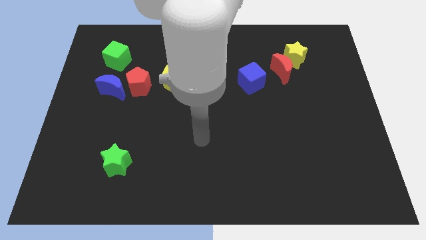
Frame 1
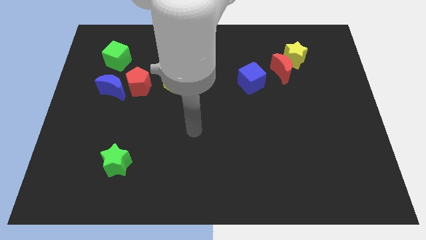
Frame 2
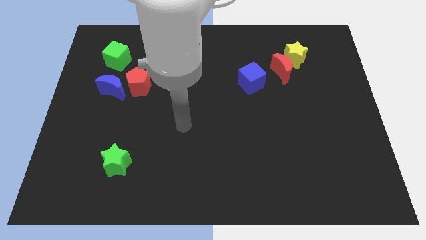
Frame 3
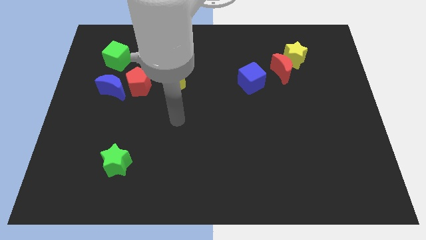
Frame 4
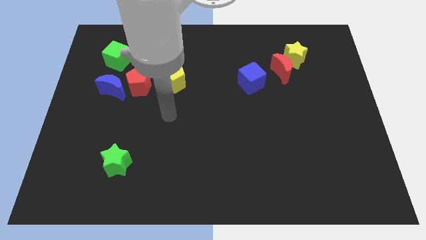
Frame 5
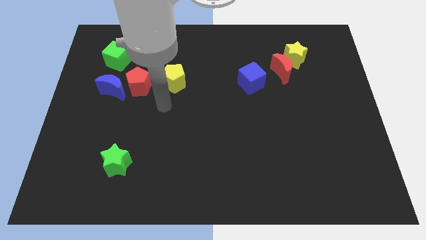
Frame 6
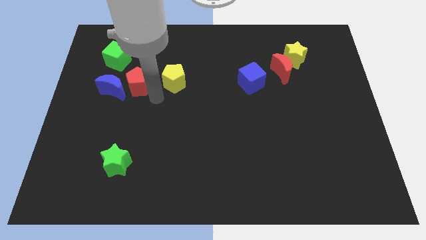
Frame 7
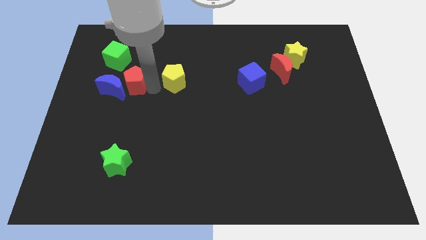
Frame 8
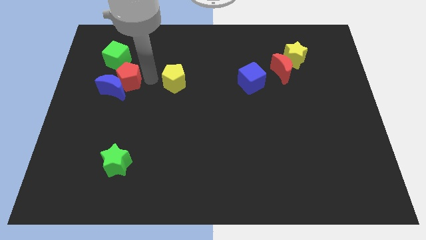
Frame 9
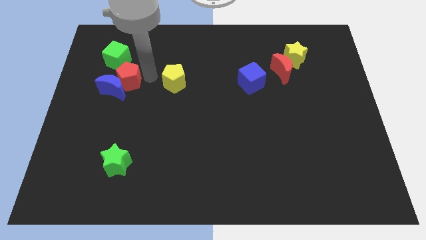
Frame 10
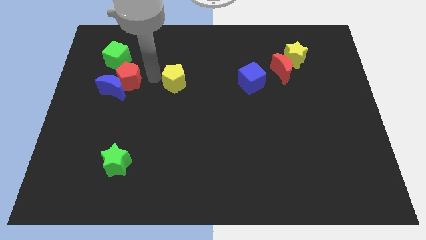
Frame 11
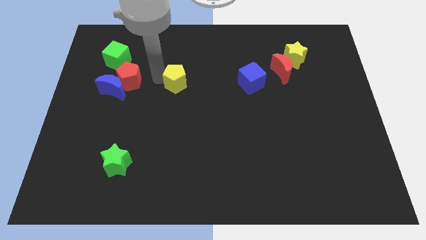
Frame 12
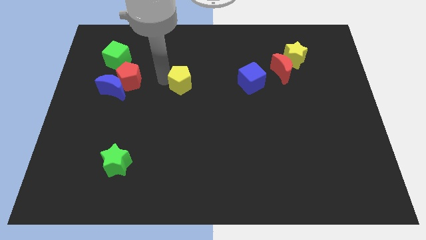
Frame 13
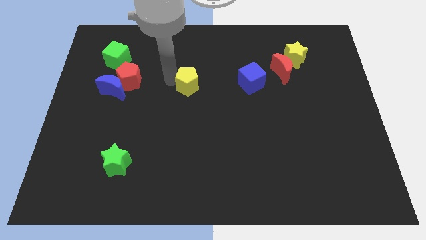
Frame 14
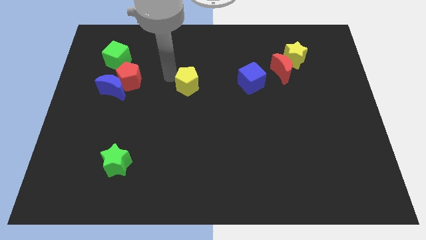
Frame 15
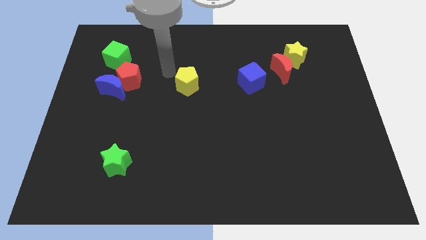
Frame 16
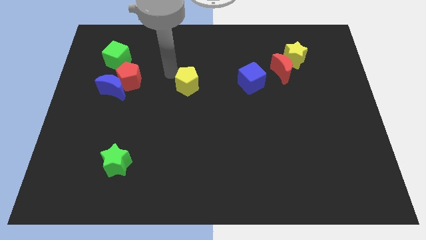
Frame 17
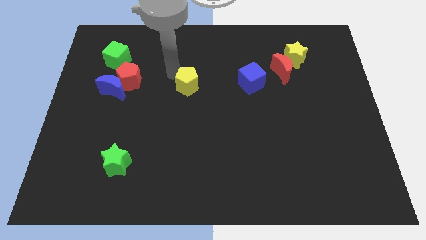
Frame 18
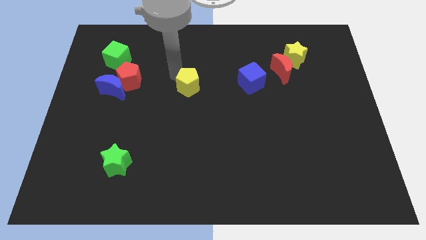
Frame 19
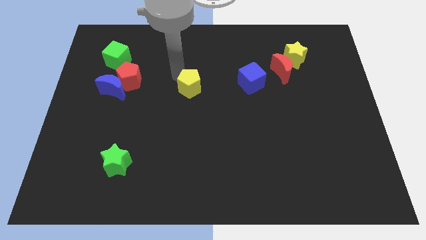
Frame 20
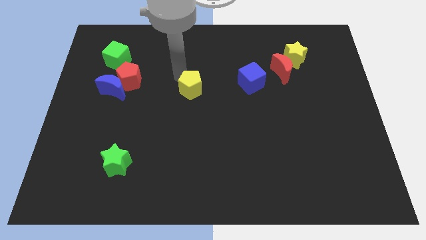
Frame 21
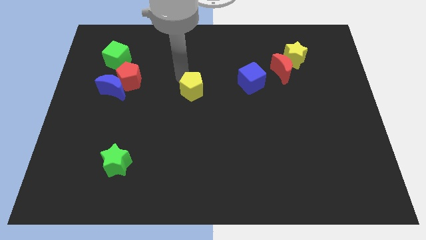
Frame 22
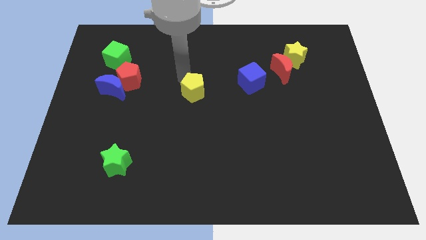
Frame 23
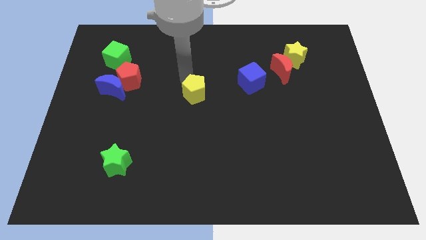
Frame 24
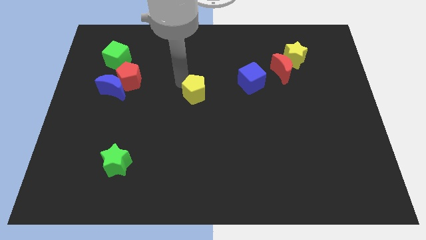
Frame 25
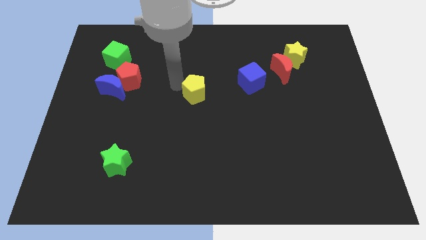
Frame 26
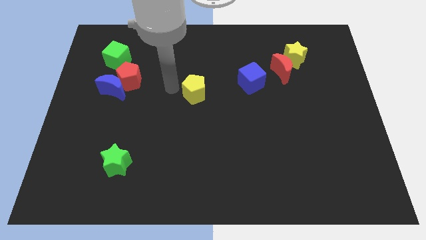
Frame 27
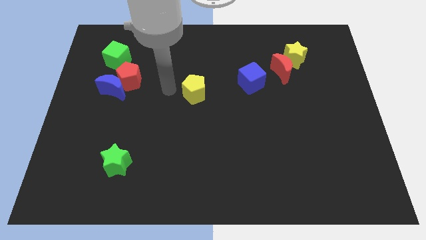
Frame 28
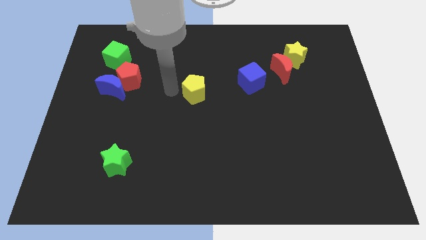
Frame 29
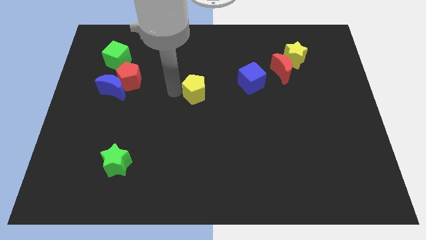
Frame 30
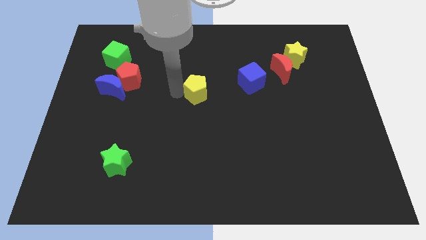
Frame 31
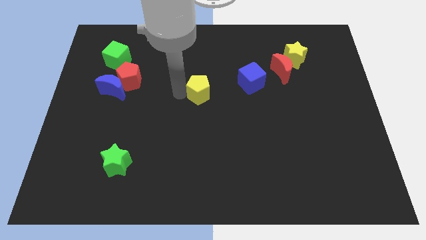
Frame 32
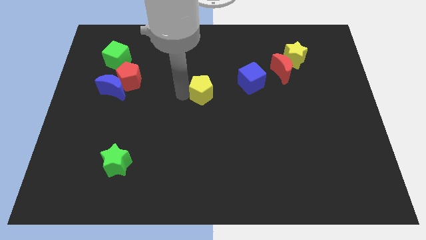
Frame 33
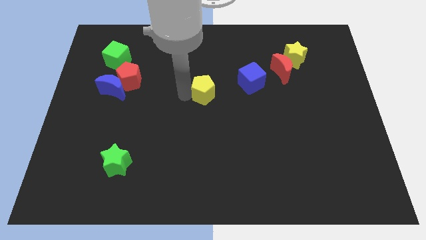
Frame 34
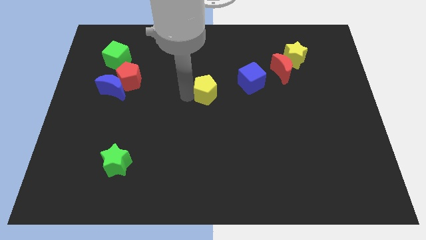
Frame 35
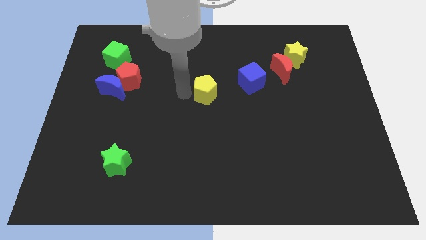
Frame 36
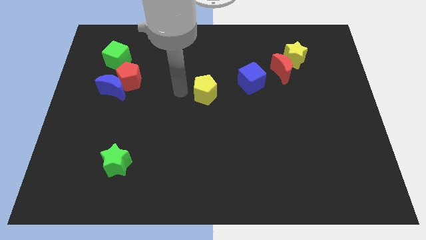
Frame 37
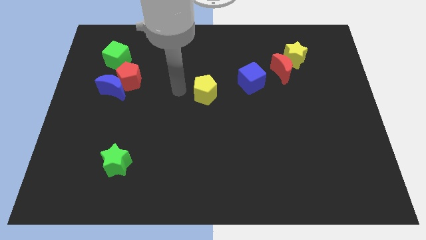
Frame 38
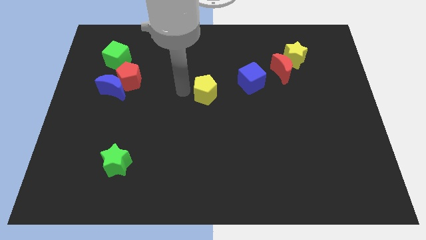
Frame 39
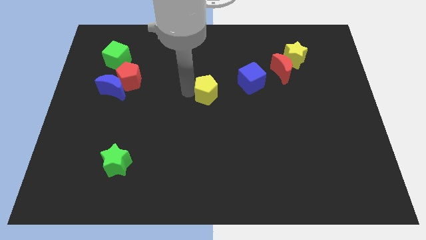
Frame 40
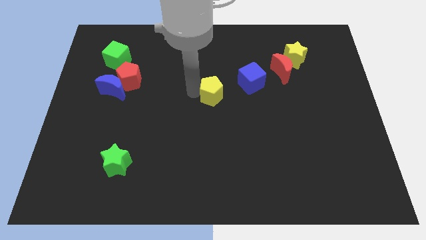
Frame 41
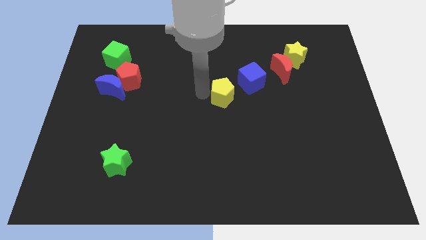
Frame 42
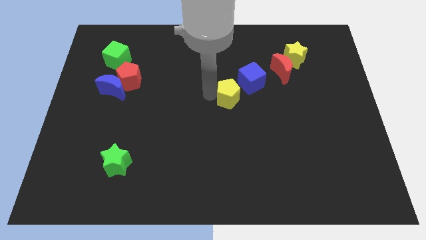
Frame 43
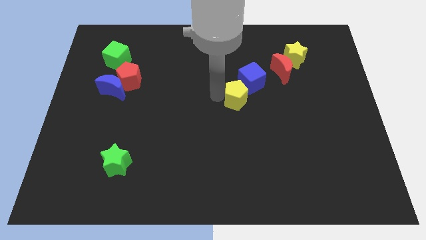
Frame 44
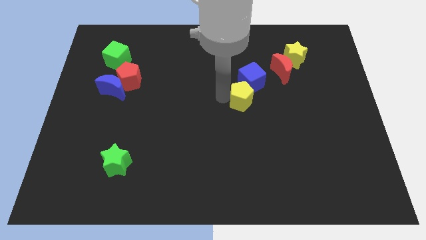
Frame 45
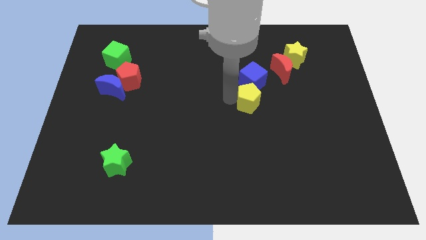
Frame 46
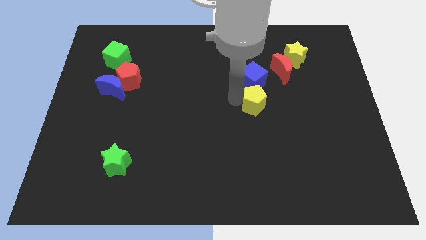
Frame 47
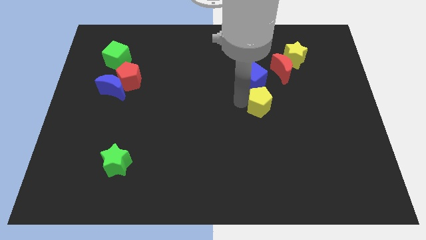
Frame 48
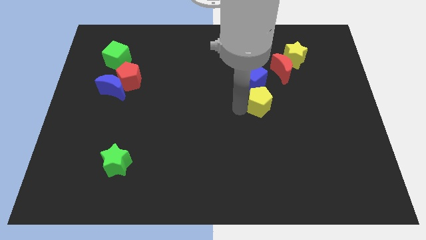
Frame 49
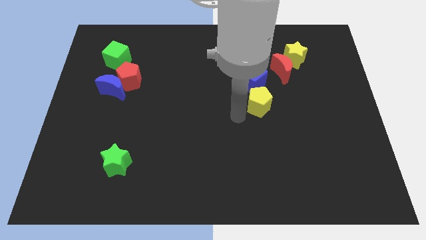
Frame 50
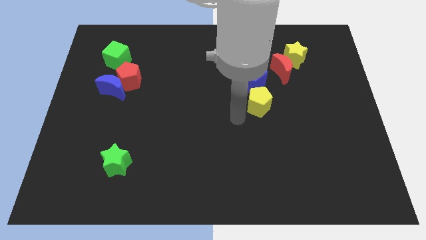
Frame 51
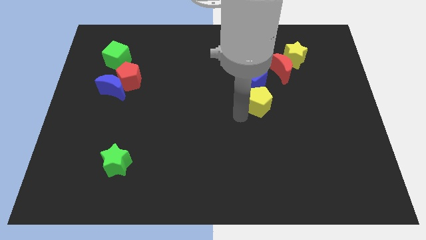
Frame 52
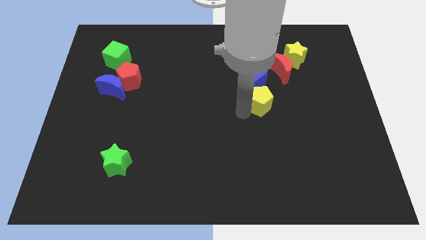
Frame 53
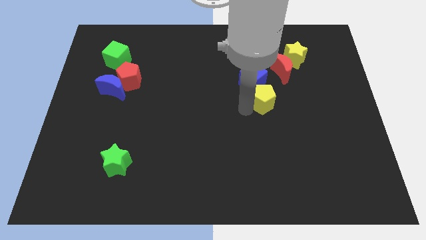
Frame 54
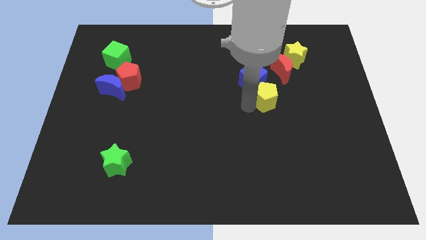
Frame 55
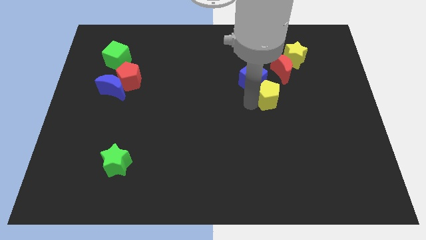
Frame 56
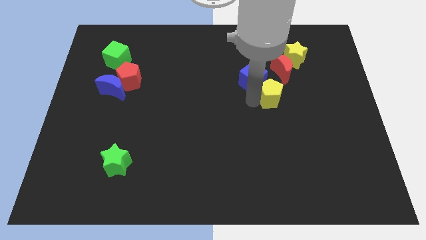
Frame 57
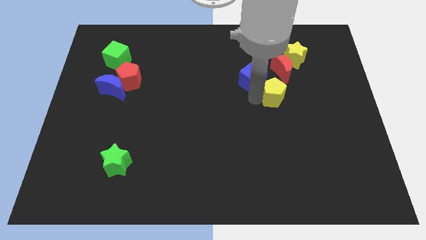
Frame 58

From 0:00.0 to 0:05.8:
slide the yellow pentagon to the right of the blue cube

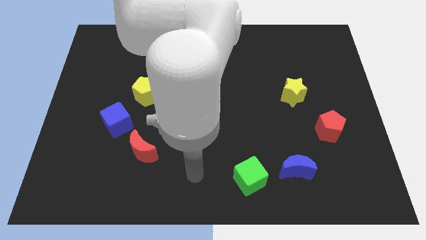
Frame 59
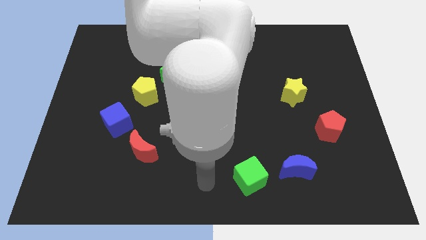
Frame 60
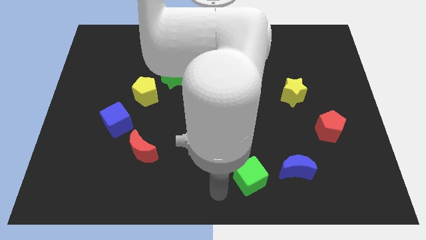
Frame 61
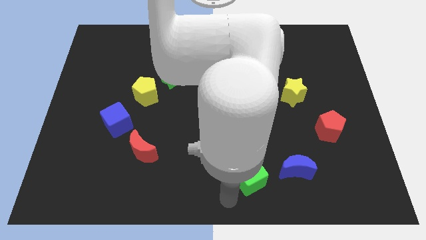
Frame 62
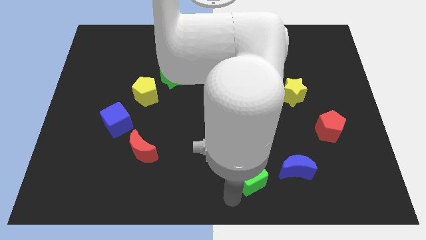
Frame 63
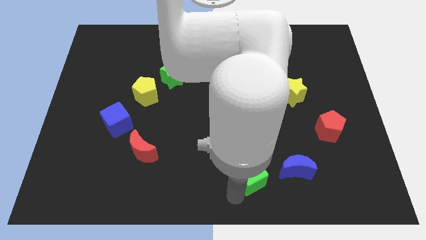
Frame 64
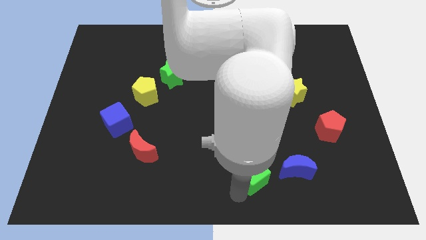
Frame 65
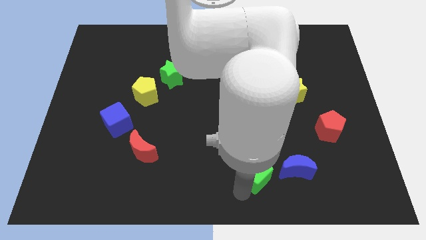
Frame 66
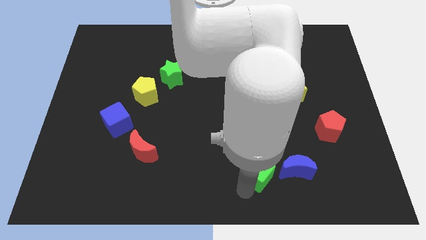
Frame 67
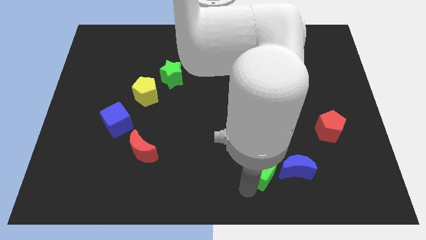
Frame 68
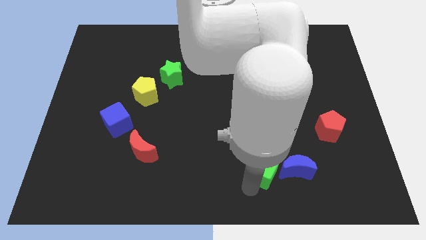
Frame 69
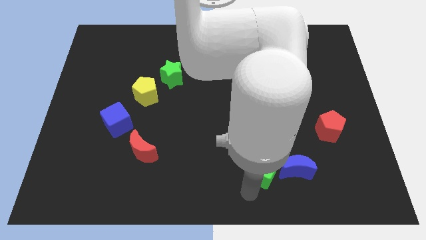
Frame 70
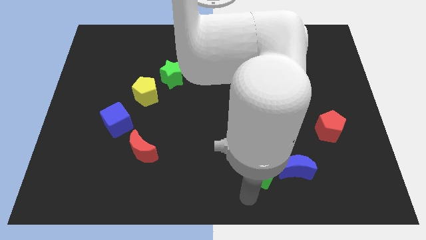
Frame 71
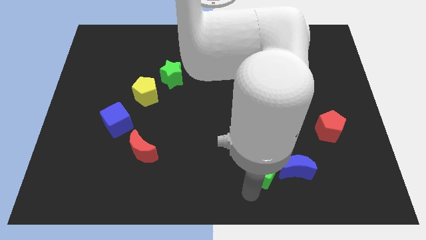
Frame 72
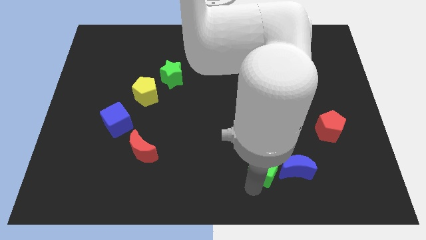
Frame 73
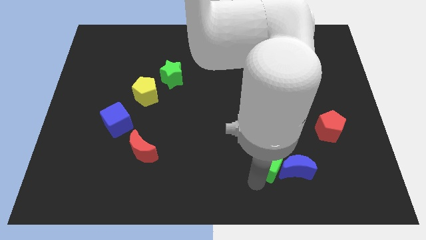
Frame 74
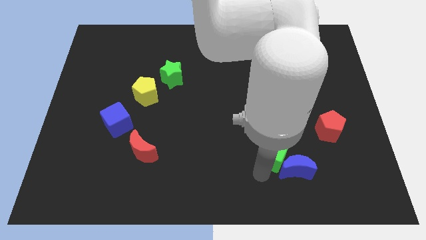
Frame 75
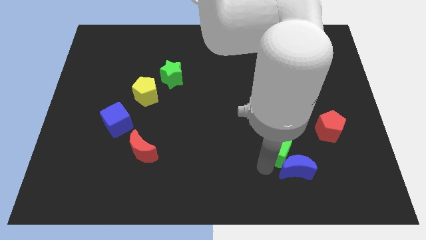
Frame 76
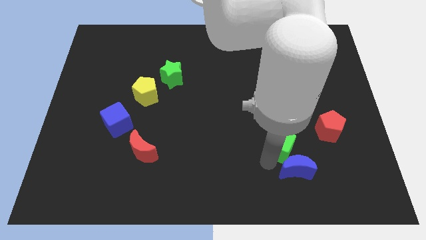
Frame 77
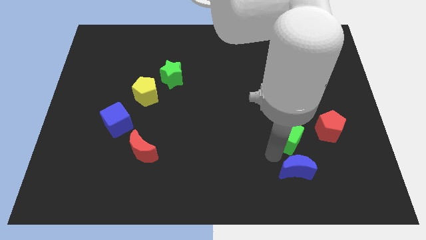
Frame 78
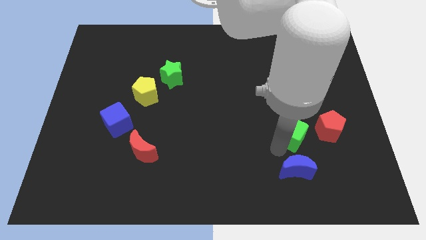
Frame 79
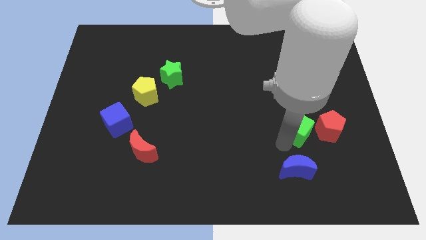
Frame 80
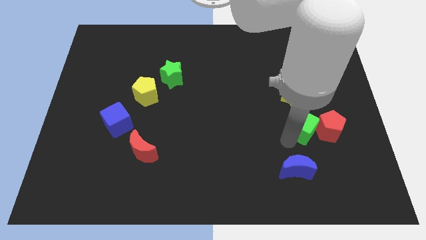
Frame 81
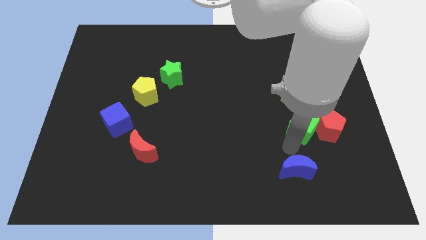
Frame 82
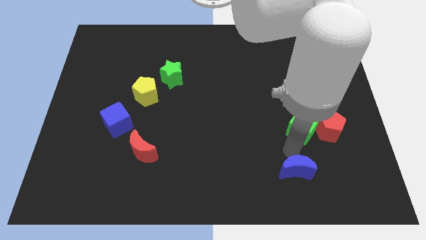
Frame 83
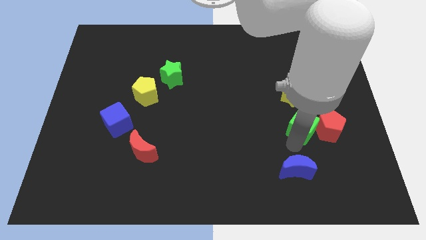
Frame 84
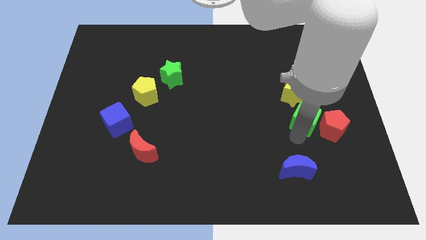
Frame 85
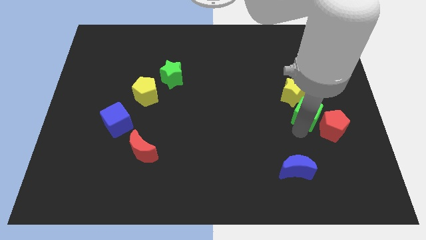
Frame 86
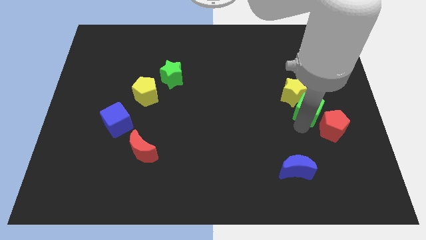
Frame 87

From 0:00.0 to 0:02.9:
move the green cube to the top of the red pentagon
